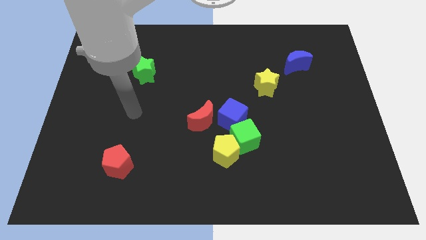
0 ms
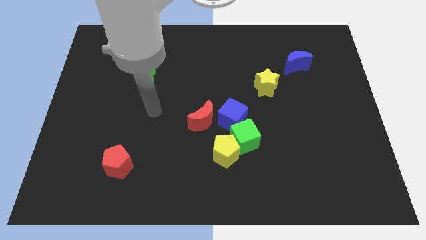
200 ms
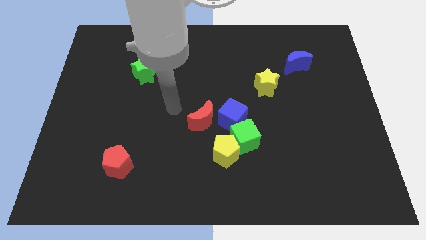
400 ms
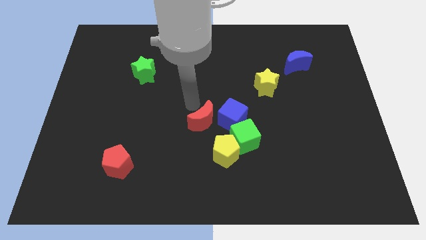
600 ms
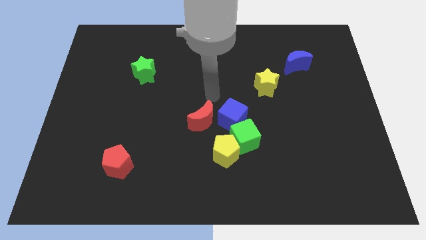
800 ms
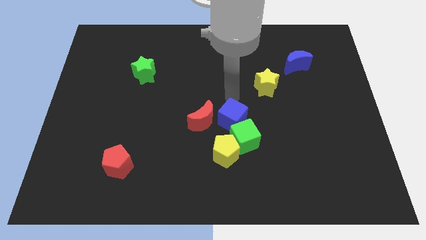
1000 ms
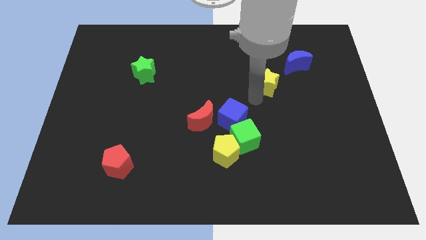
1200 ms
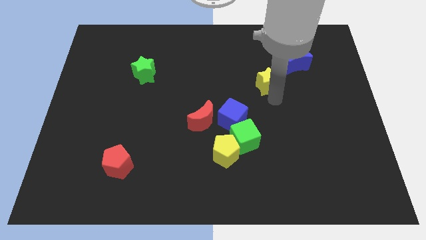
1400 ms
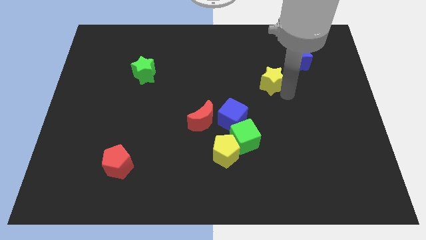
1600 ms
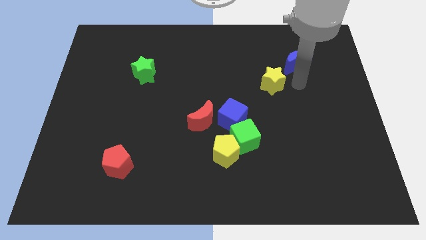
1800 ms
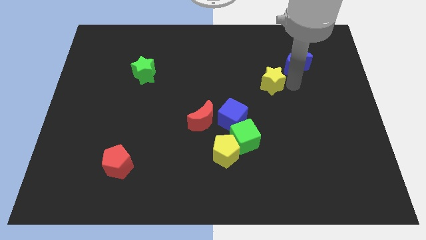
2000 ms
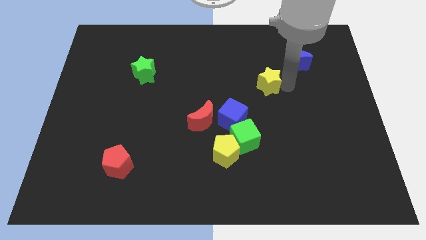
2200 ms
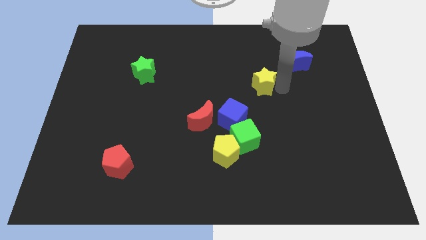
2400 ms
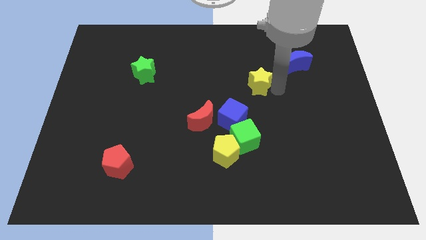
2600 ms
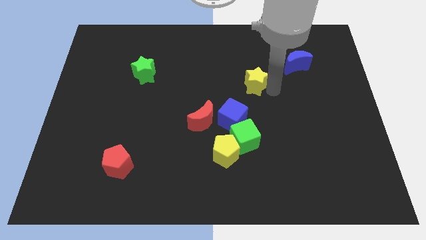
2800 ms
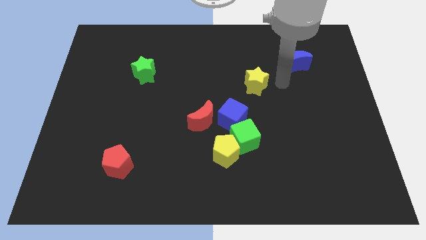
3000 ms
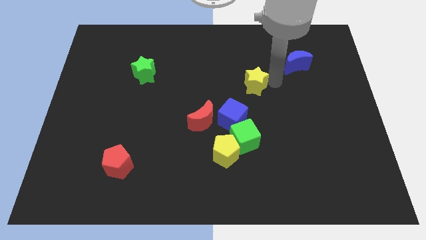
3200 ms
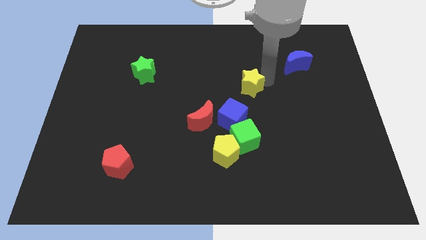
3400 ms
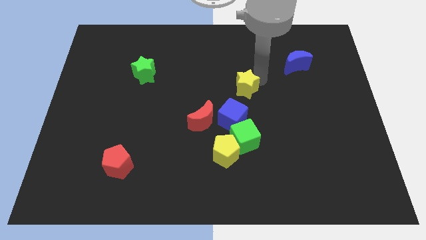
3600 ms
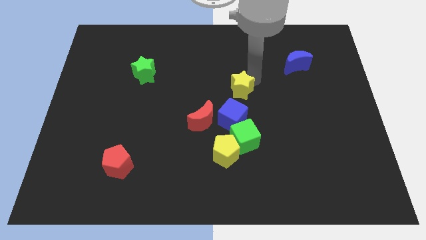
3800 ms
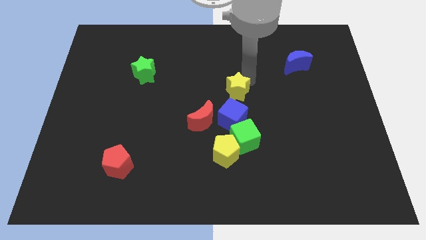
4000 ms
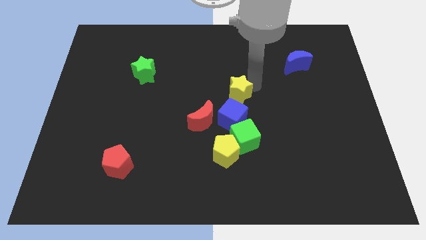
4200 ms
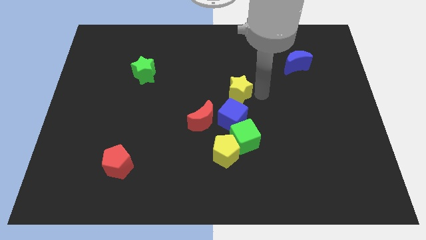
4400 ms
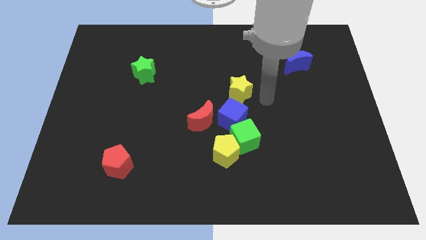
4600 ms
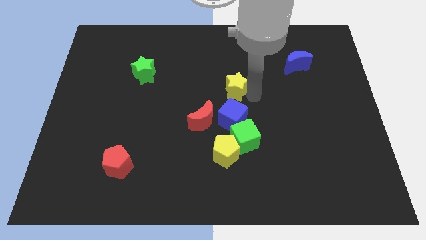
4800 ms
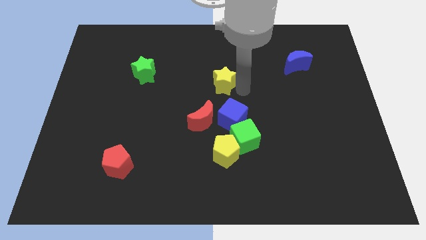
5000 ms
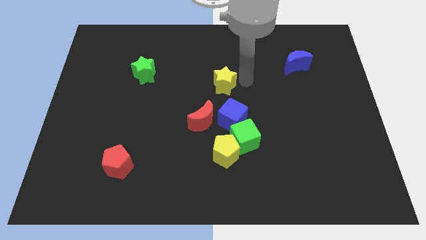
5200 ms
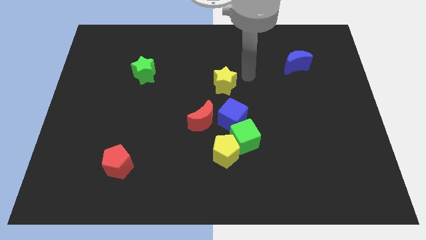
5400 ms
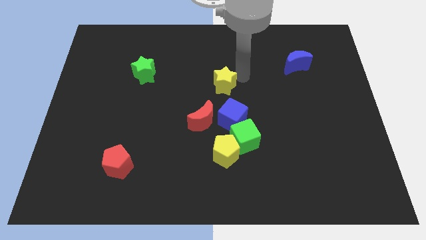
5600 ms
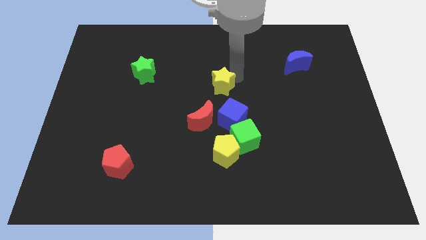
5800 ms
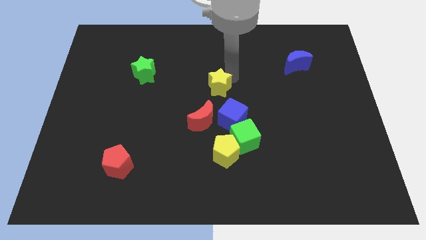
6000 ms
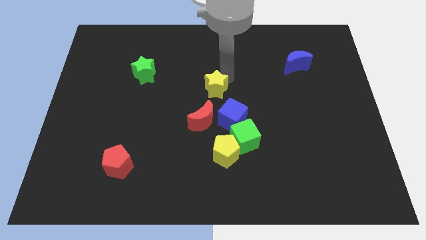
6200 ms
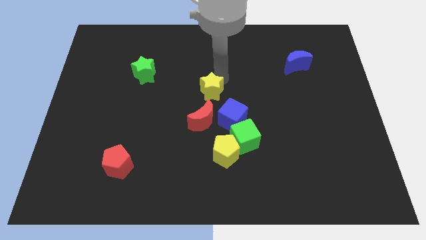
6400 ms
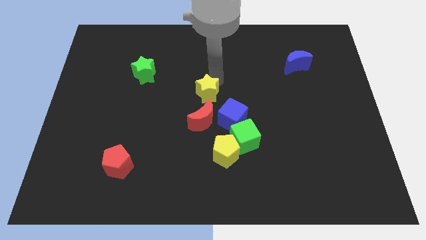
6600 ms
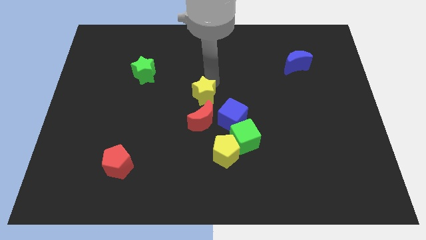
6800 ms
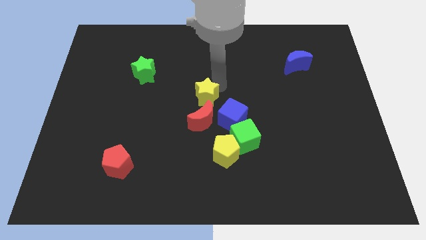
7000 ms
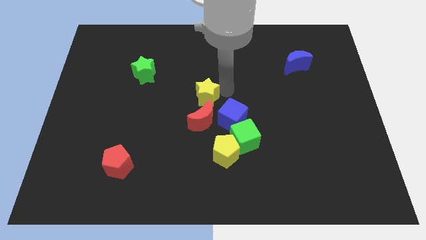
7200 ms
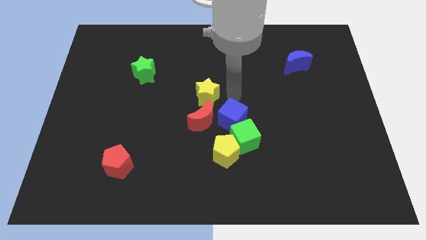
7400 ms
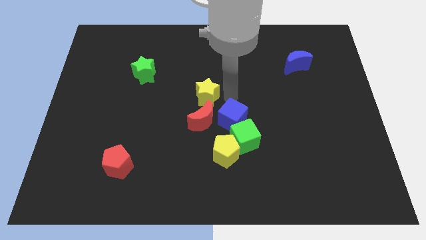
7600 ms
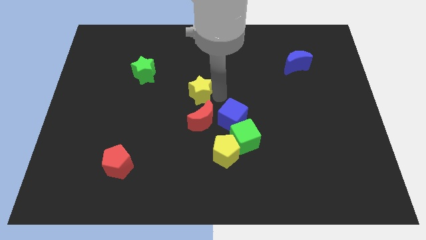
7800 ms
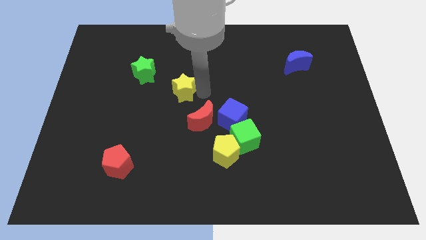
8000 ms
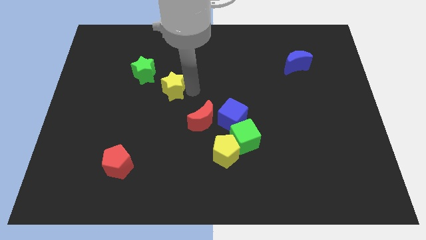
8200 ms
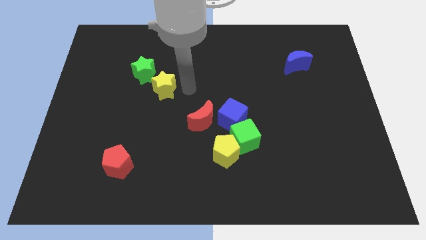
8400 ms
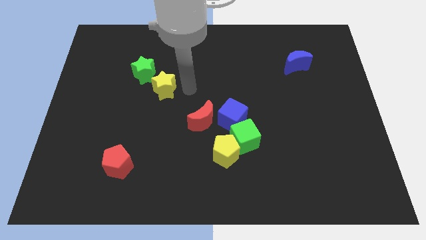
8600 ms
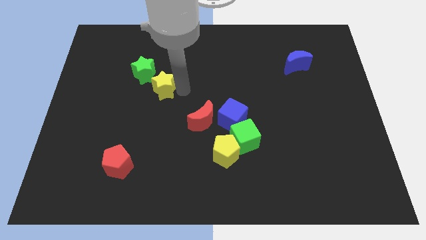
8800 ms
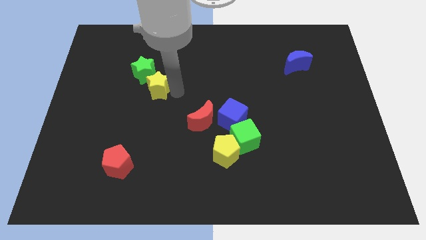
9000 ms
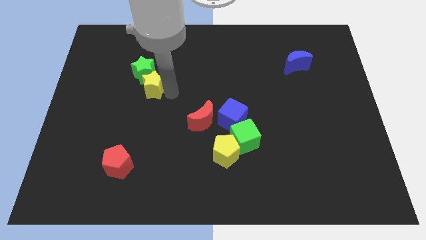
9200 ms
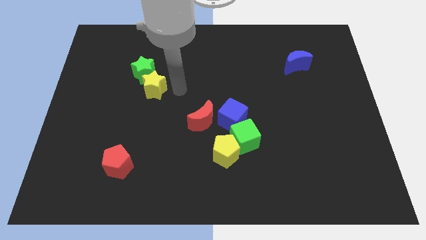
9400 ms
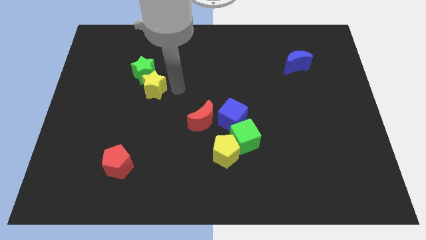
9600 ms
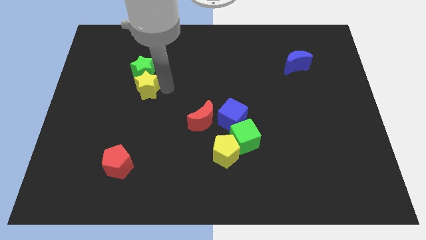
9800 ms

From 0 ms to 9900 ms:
push the yellow star diagonally down and to the left of the green star

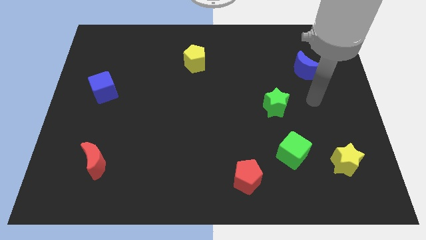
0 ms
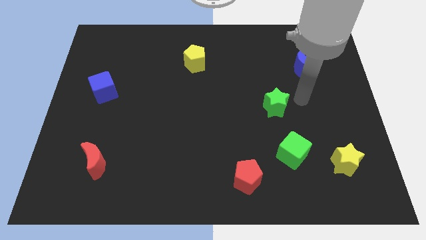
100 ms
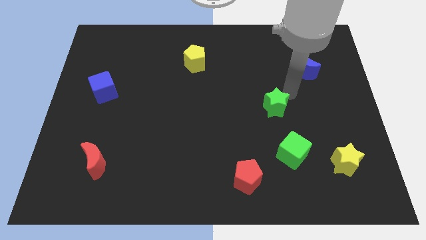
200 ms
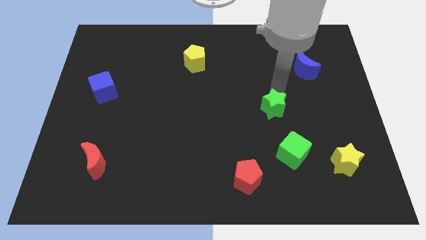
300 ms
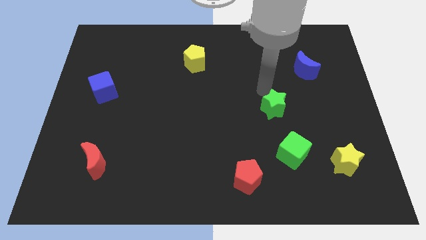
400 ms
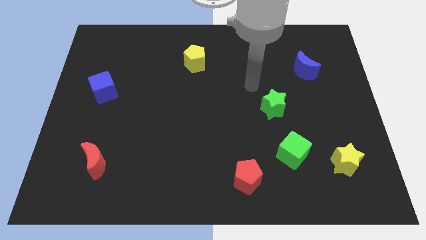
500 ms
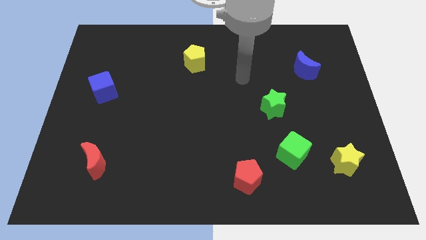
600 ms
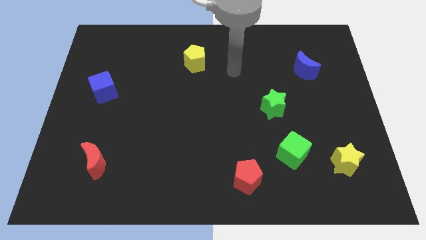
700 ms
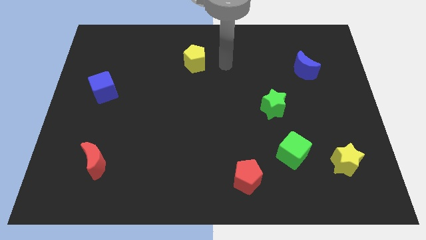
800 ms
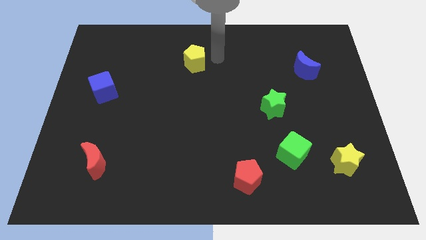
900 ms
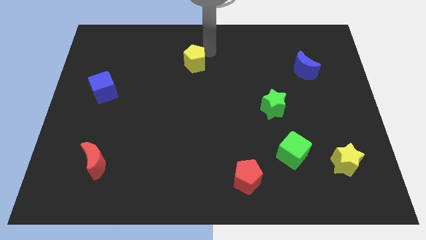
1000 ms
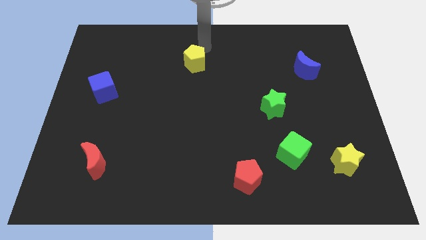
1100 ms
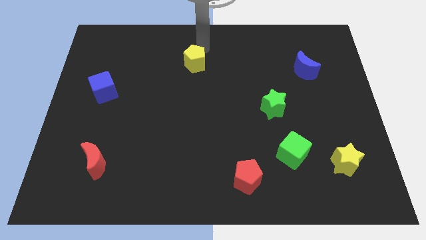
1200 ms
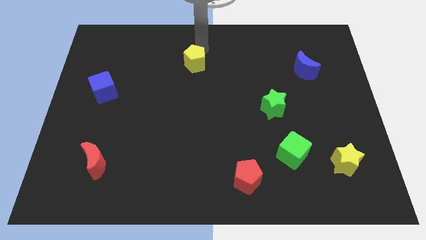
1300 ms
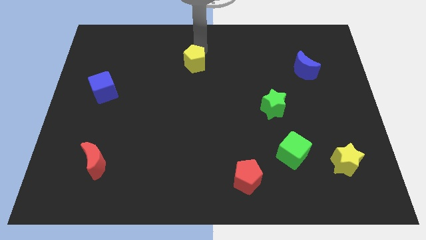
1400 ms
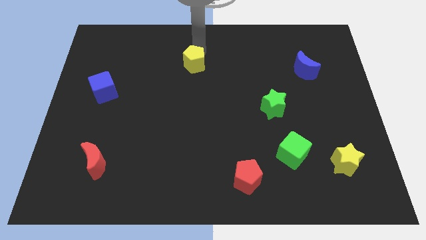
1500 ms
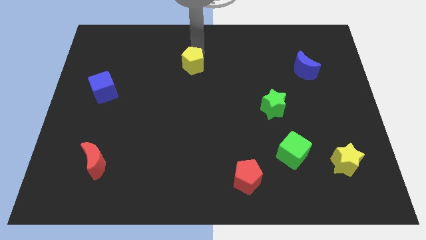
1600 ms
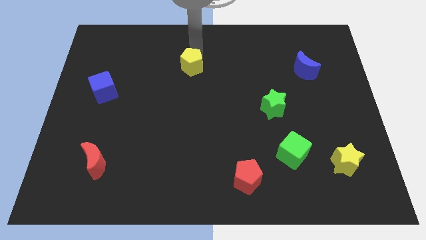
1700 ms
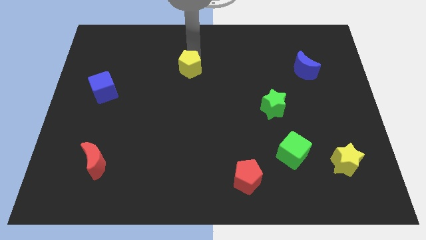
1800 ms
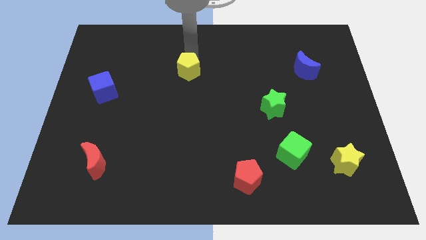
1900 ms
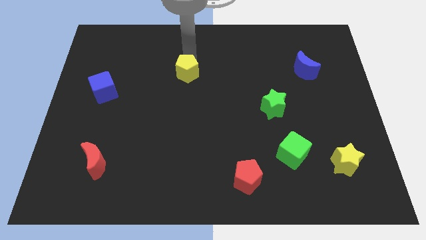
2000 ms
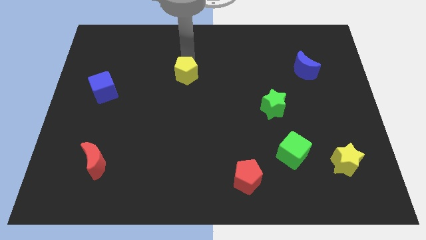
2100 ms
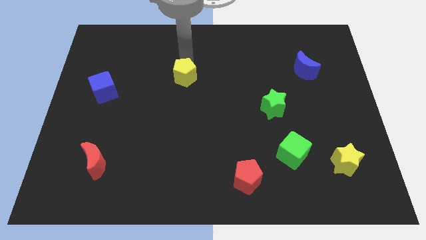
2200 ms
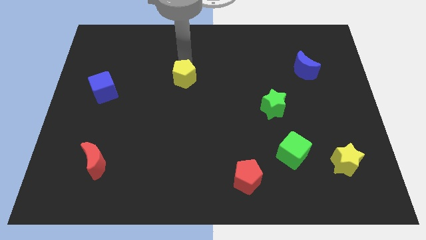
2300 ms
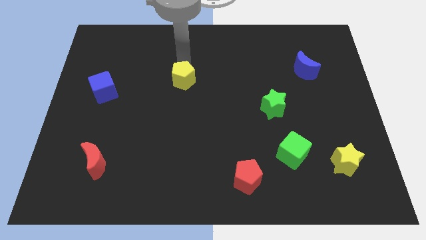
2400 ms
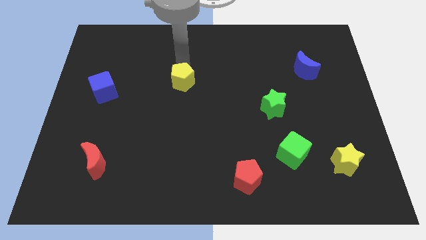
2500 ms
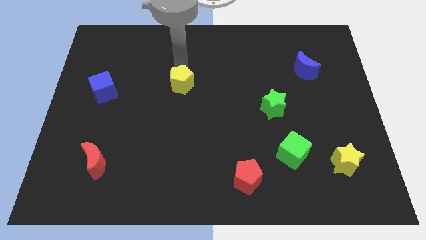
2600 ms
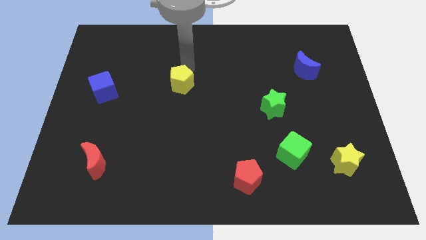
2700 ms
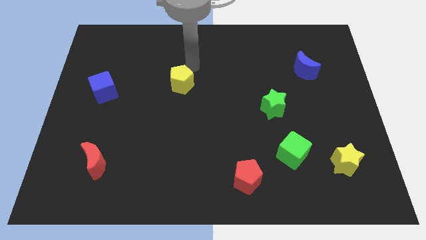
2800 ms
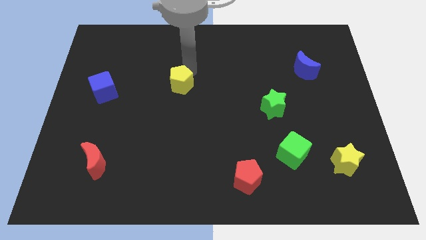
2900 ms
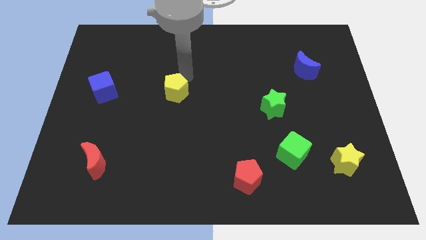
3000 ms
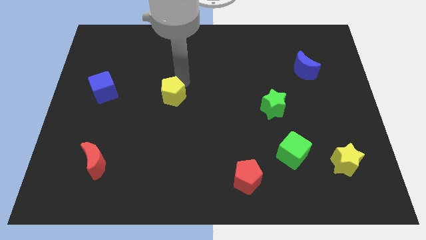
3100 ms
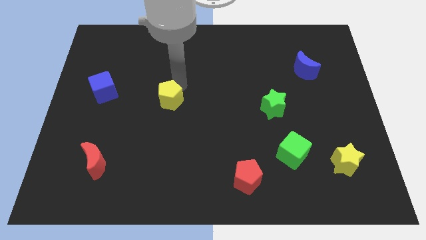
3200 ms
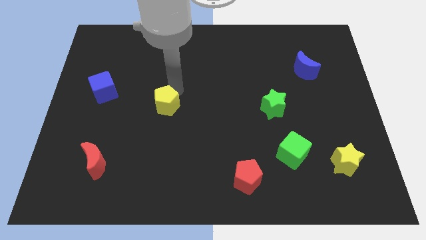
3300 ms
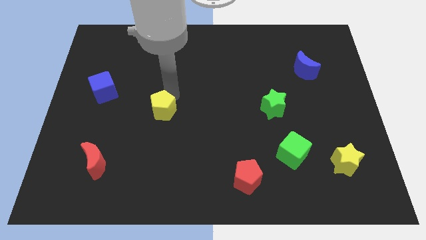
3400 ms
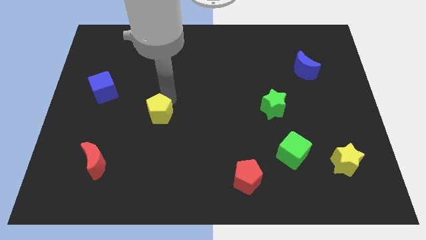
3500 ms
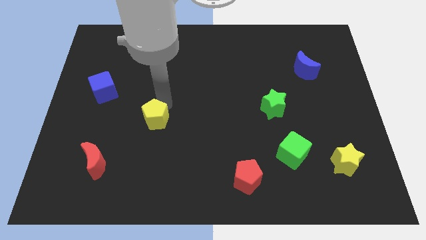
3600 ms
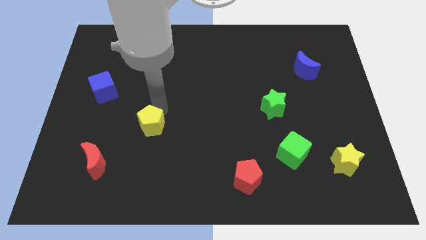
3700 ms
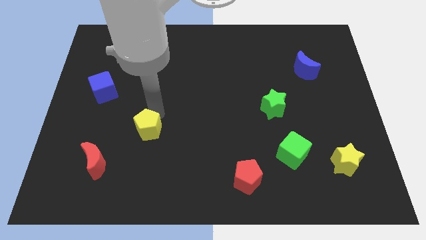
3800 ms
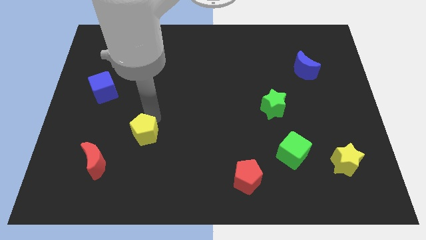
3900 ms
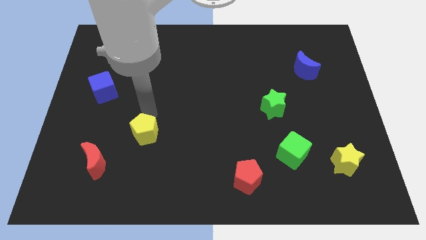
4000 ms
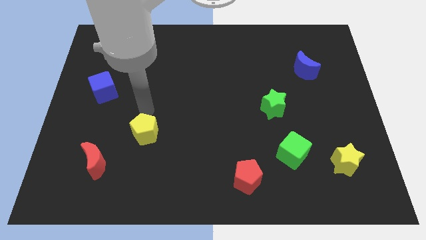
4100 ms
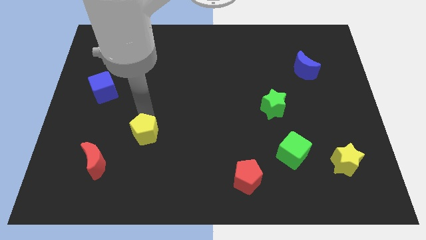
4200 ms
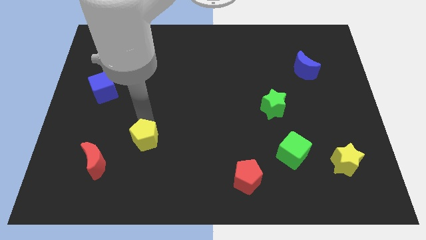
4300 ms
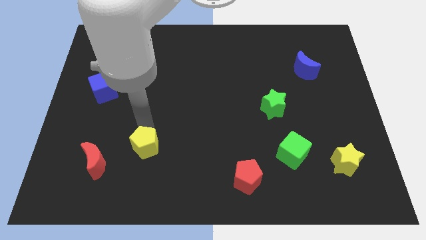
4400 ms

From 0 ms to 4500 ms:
slide the yellow pentagon to the right side of the red moon
